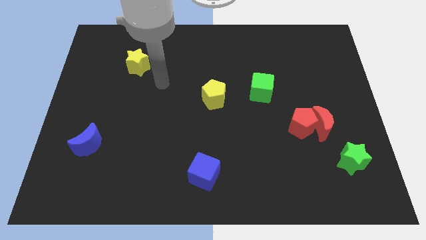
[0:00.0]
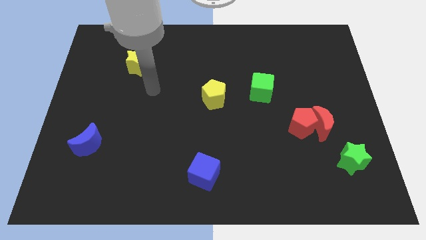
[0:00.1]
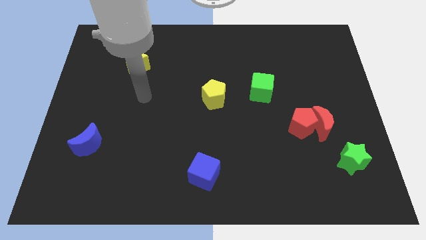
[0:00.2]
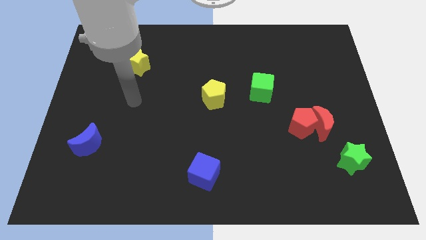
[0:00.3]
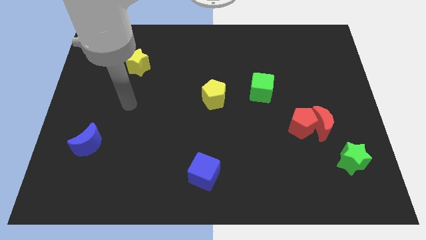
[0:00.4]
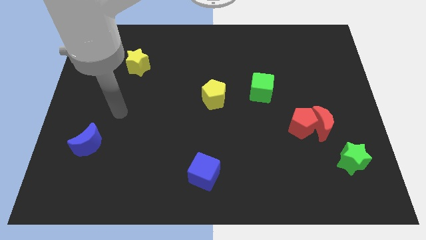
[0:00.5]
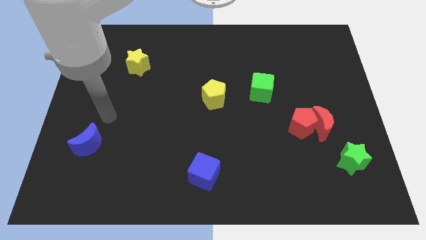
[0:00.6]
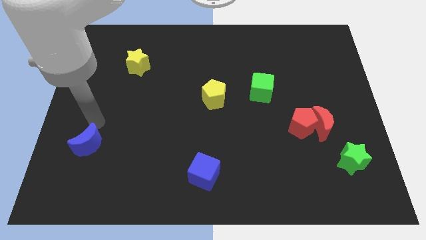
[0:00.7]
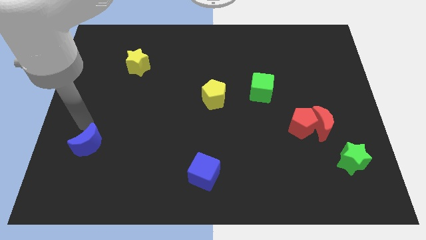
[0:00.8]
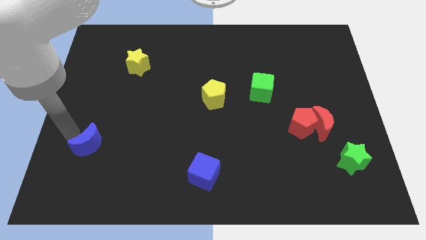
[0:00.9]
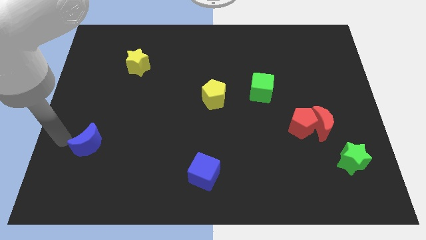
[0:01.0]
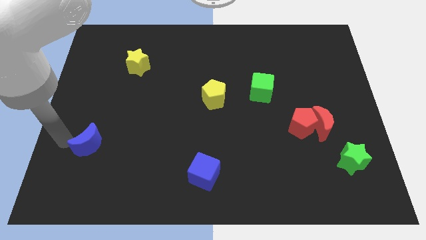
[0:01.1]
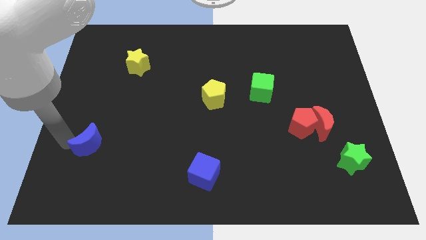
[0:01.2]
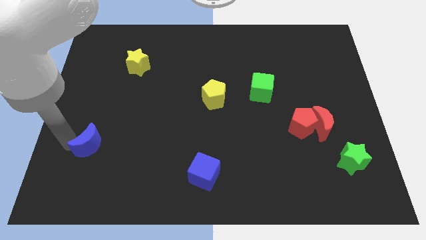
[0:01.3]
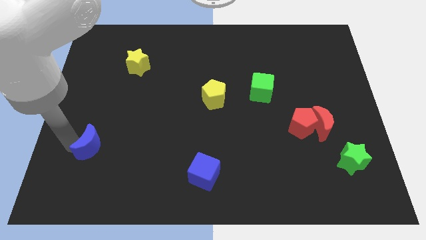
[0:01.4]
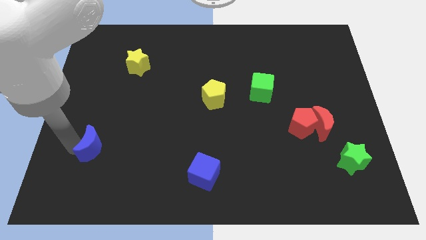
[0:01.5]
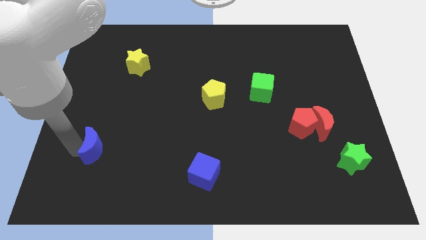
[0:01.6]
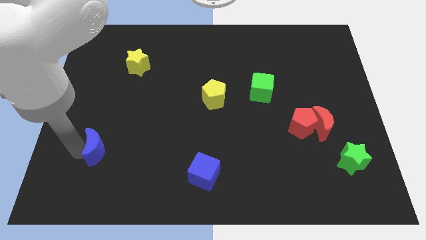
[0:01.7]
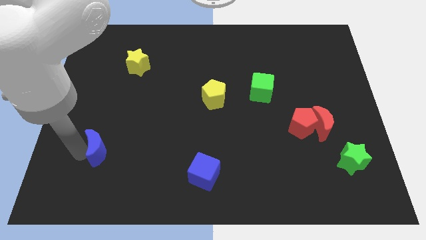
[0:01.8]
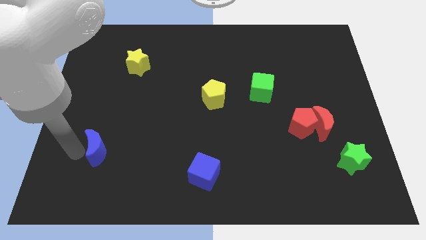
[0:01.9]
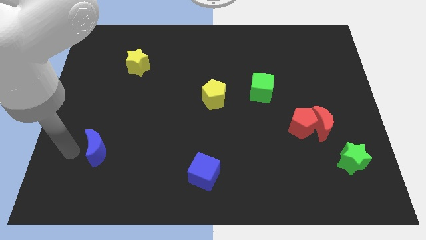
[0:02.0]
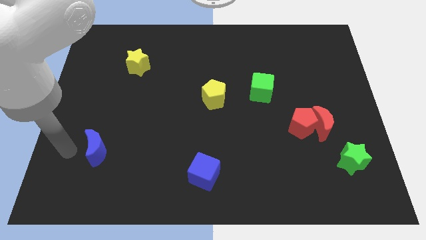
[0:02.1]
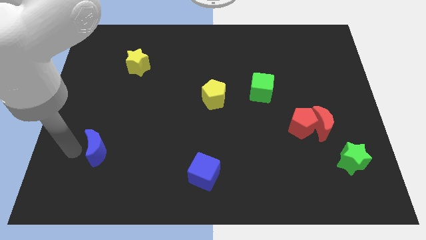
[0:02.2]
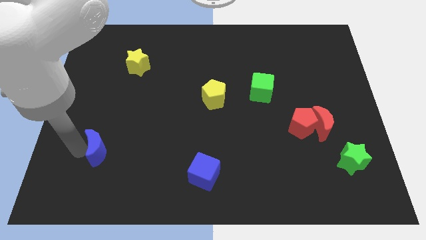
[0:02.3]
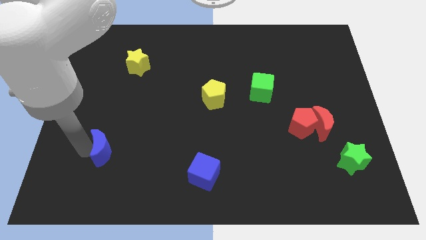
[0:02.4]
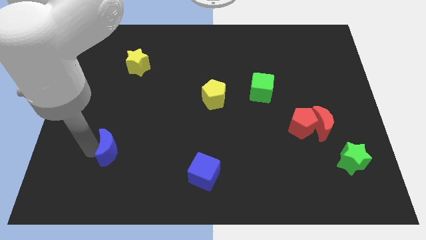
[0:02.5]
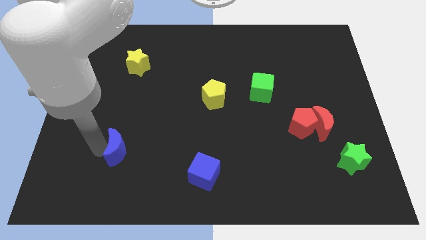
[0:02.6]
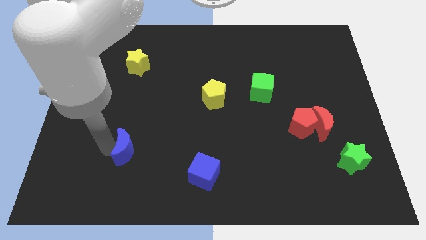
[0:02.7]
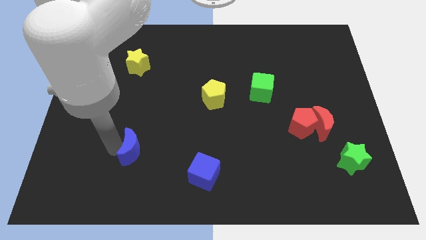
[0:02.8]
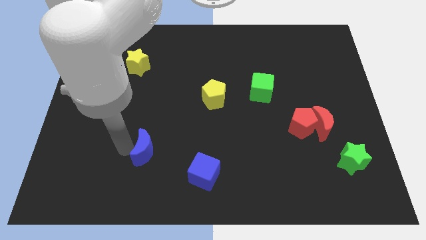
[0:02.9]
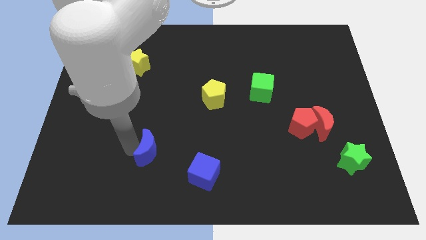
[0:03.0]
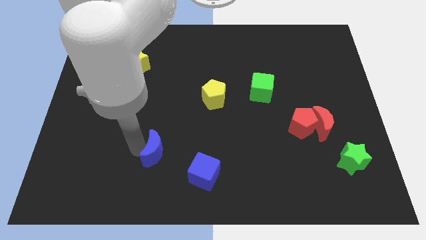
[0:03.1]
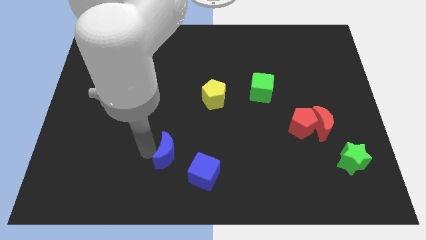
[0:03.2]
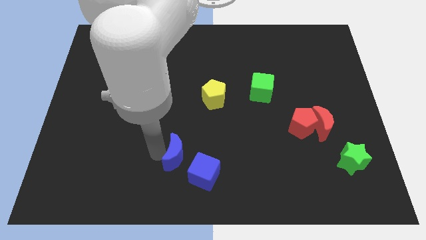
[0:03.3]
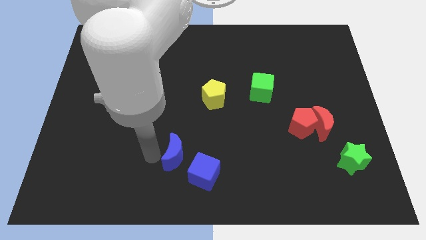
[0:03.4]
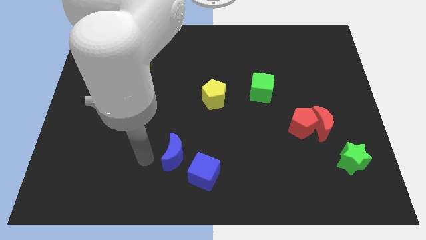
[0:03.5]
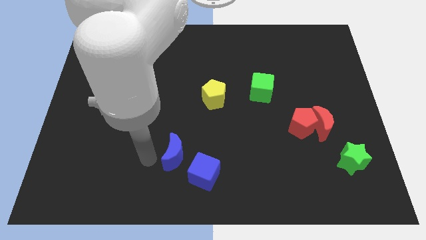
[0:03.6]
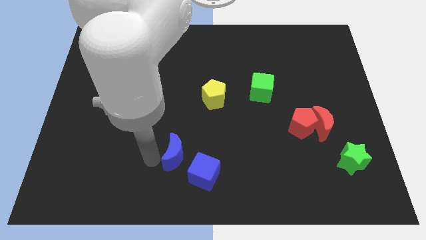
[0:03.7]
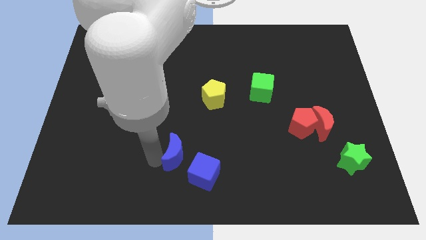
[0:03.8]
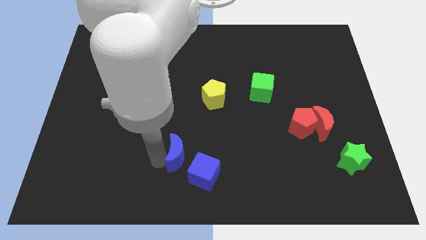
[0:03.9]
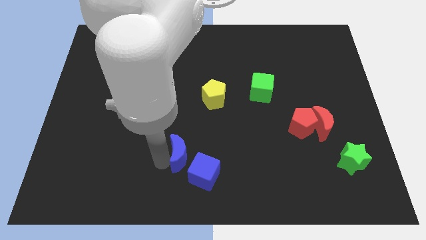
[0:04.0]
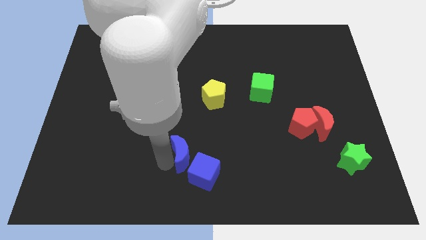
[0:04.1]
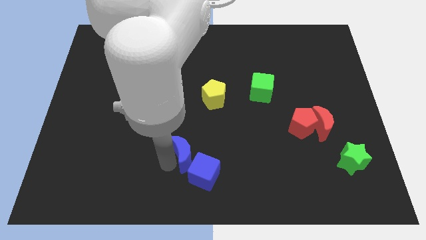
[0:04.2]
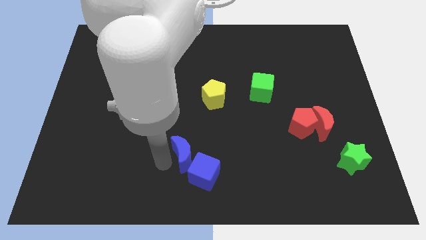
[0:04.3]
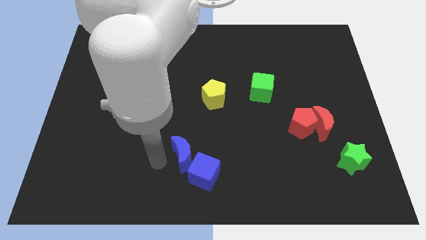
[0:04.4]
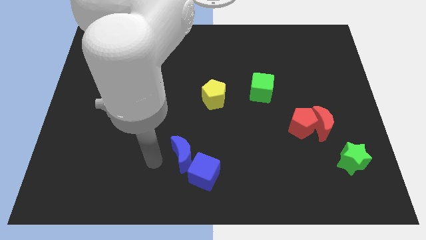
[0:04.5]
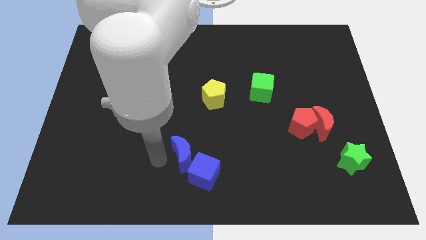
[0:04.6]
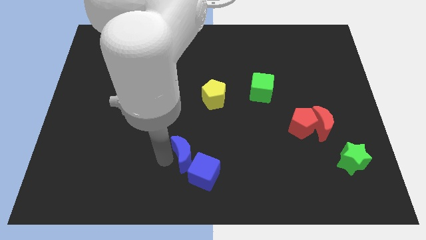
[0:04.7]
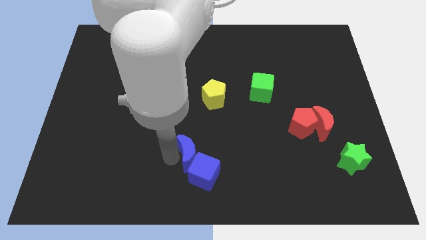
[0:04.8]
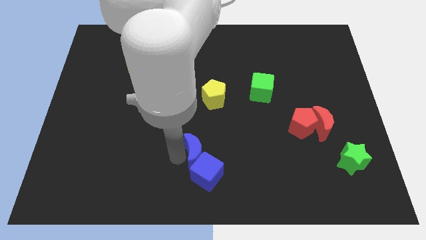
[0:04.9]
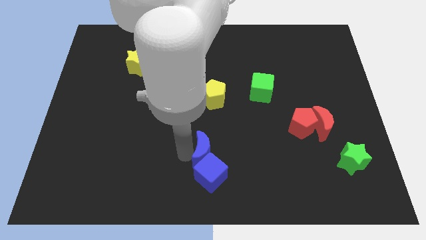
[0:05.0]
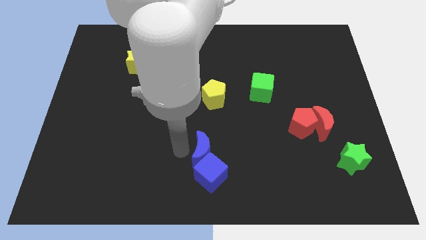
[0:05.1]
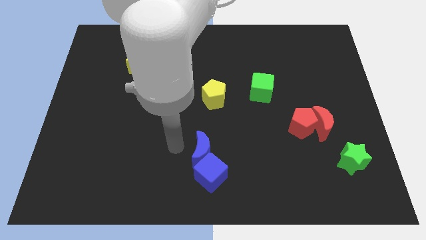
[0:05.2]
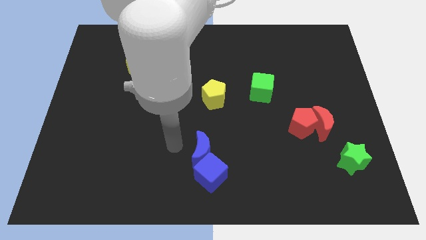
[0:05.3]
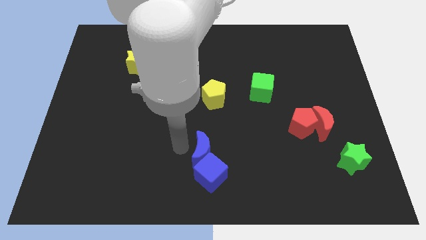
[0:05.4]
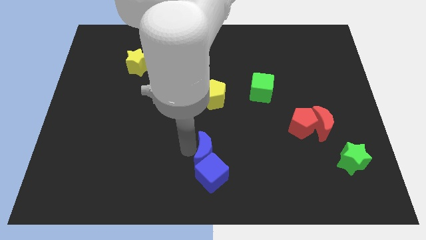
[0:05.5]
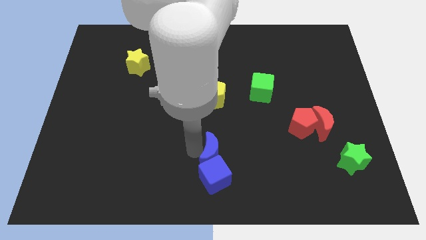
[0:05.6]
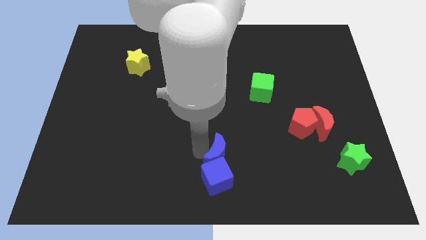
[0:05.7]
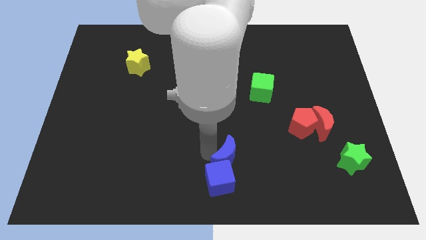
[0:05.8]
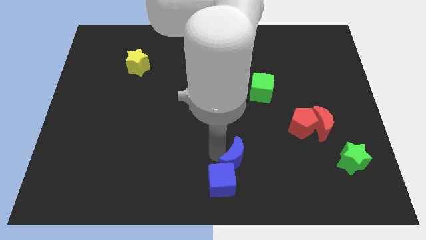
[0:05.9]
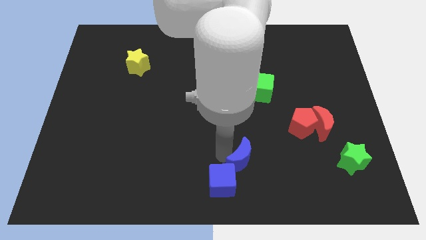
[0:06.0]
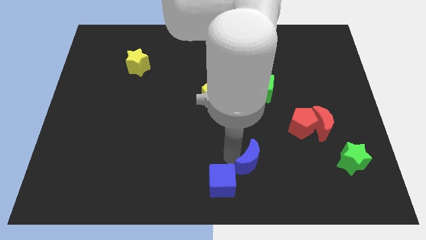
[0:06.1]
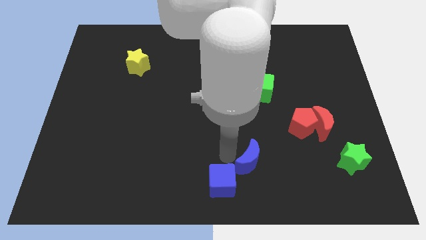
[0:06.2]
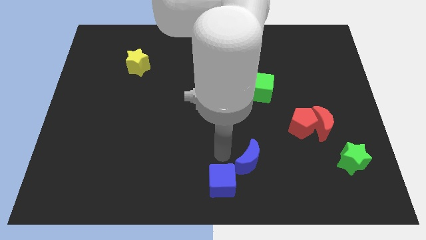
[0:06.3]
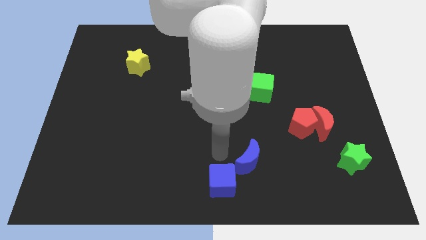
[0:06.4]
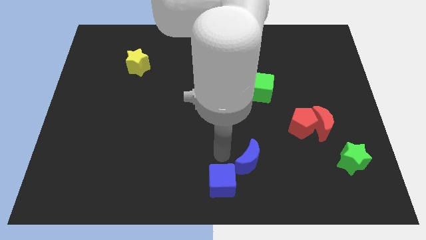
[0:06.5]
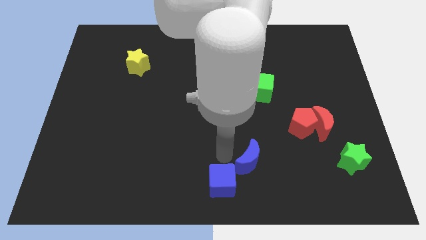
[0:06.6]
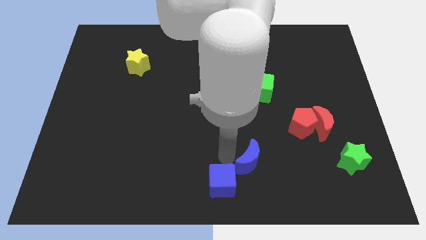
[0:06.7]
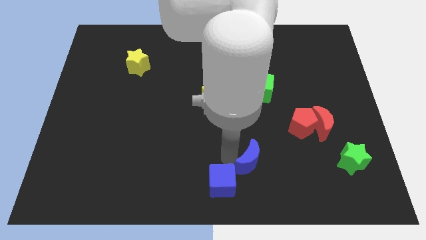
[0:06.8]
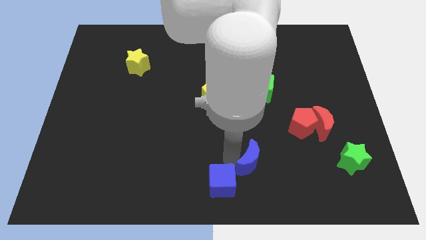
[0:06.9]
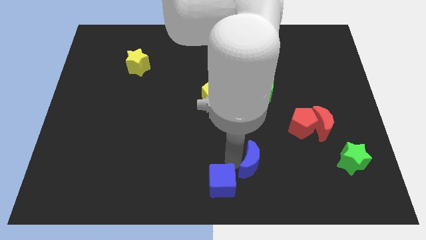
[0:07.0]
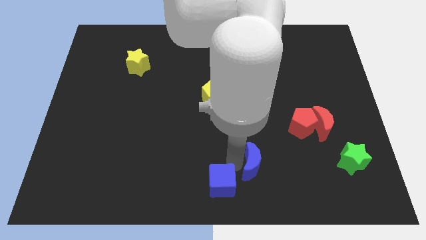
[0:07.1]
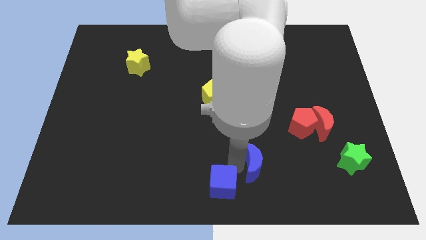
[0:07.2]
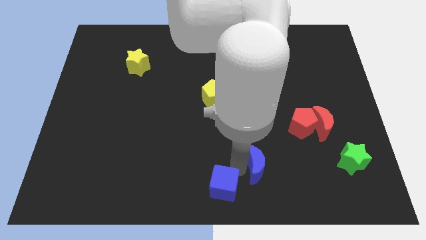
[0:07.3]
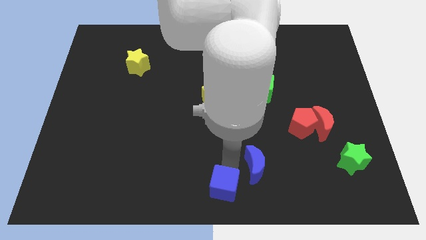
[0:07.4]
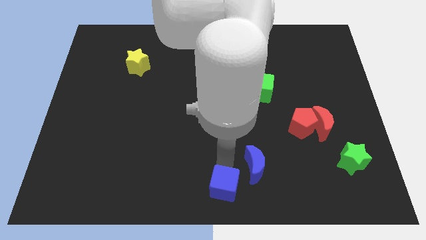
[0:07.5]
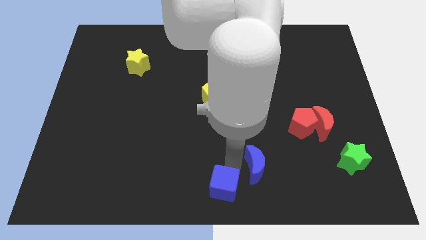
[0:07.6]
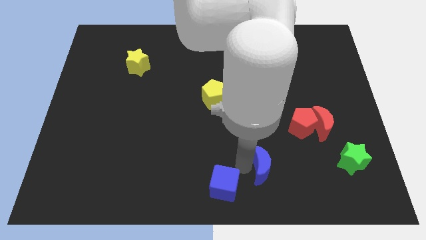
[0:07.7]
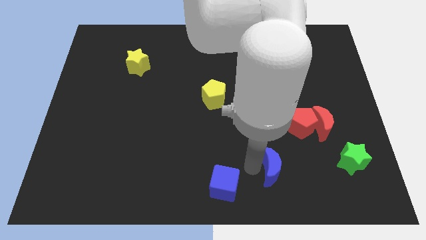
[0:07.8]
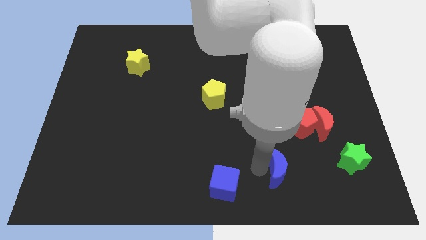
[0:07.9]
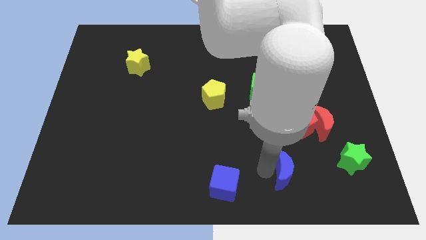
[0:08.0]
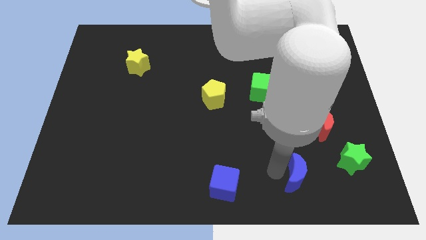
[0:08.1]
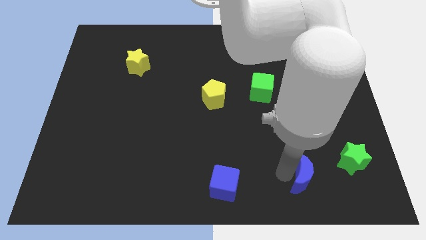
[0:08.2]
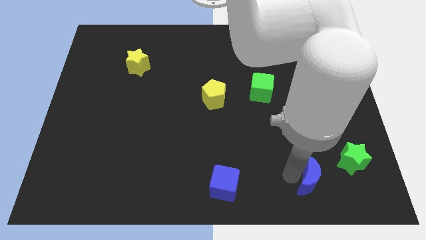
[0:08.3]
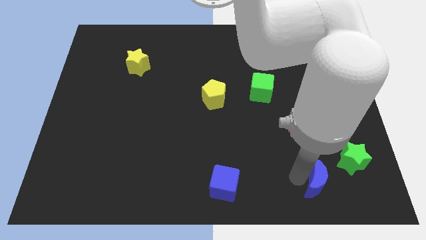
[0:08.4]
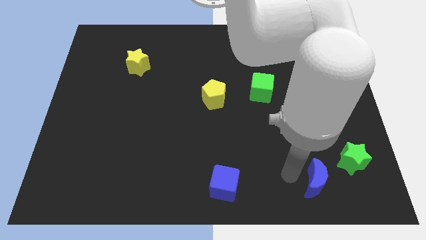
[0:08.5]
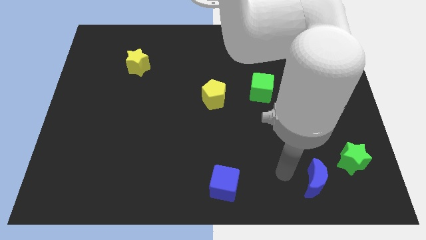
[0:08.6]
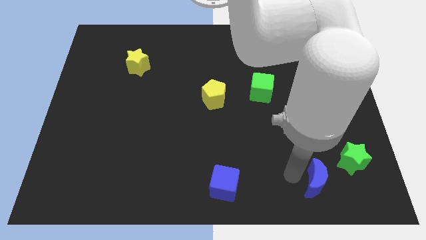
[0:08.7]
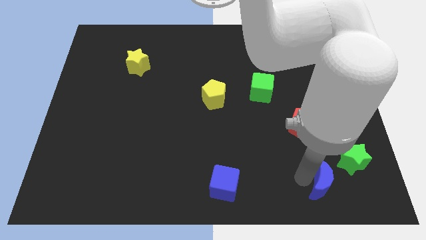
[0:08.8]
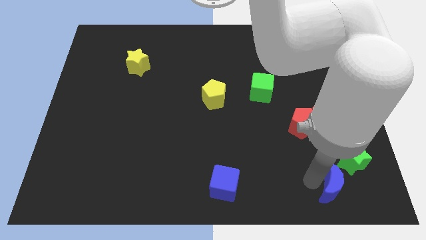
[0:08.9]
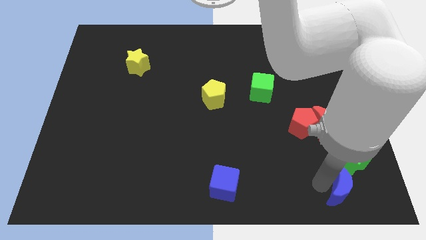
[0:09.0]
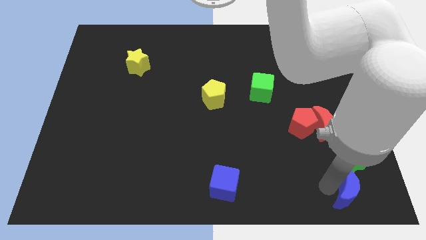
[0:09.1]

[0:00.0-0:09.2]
push the blue moon to the lower right corner
